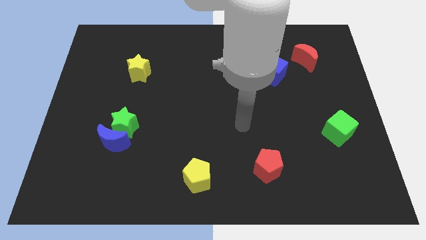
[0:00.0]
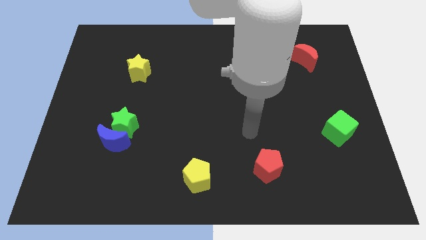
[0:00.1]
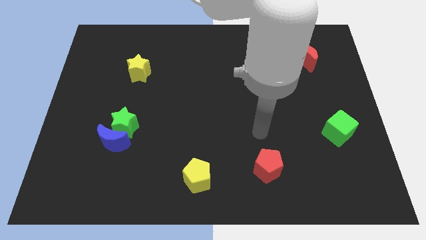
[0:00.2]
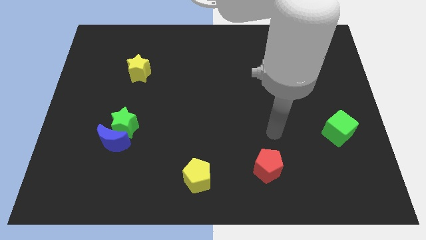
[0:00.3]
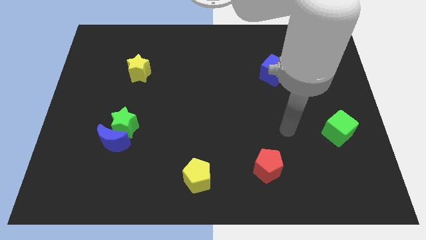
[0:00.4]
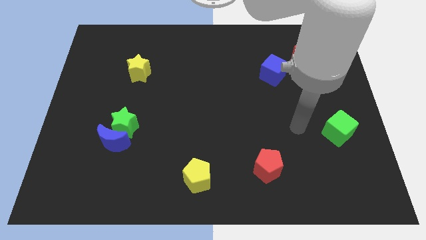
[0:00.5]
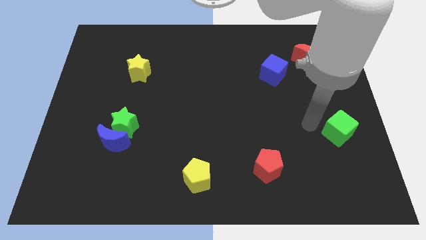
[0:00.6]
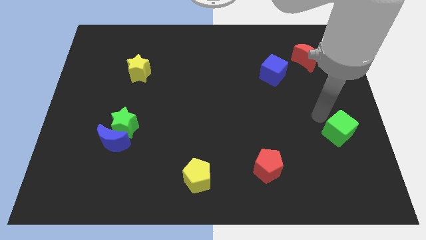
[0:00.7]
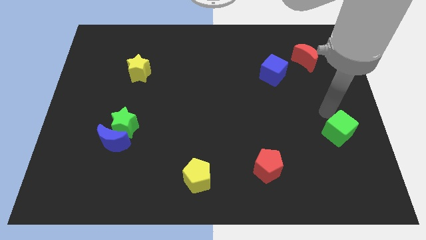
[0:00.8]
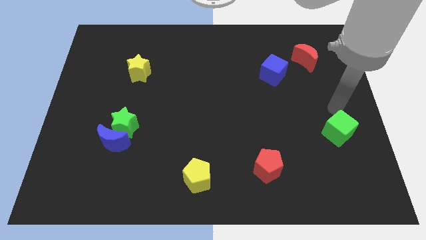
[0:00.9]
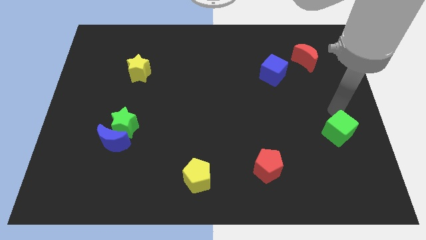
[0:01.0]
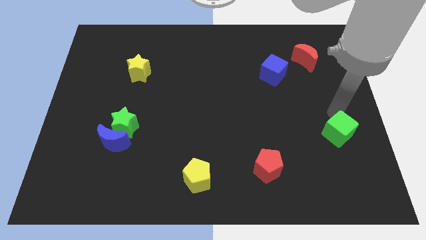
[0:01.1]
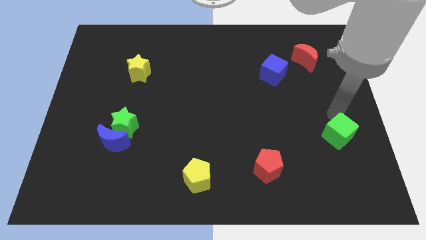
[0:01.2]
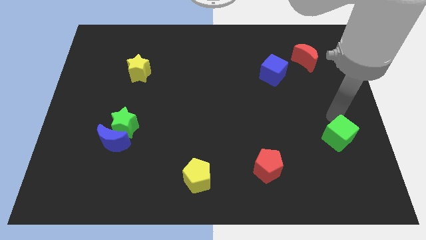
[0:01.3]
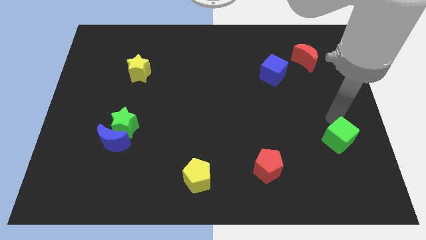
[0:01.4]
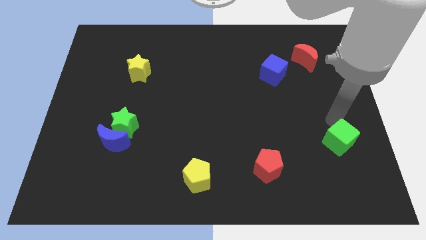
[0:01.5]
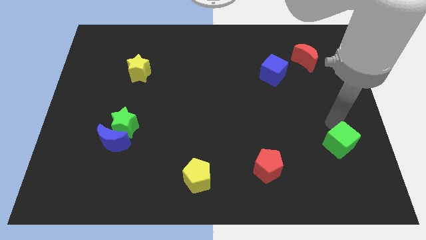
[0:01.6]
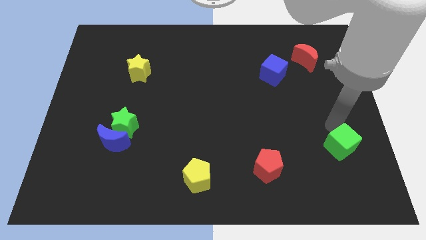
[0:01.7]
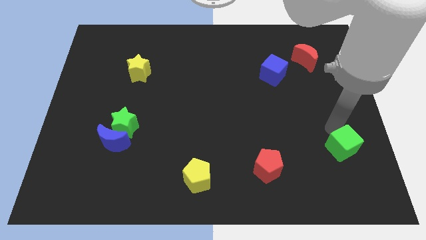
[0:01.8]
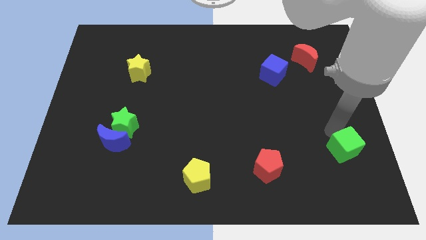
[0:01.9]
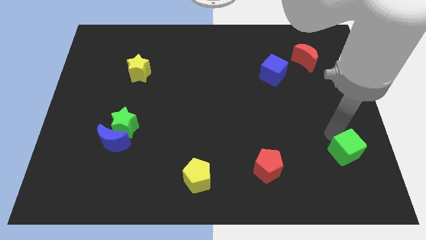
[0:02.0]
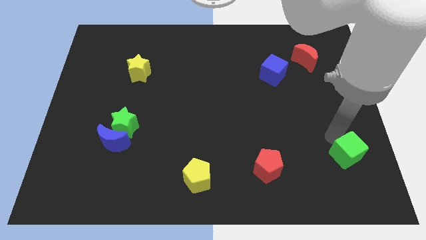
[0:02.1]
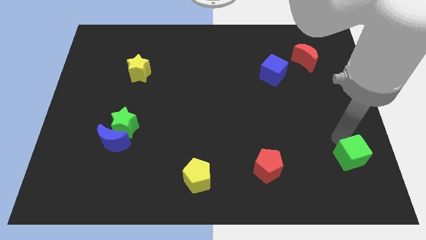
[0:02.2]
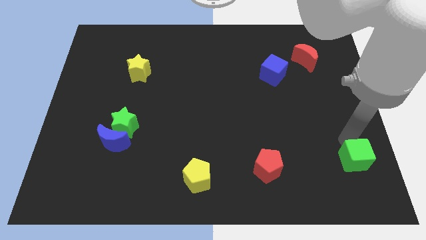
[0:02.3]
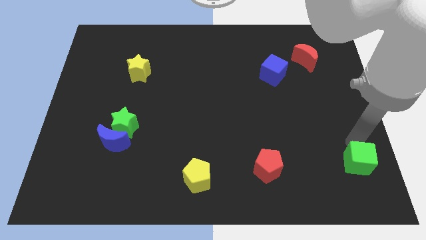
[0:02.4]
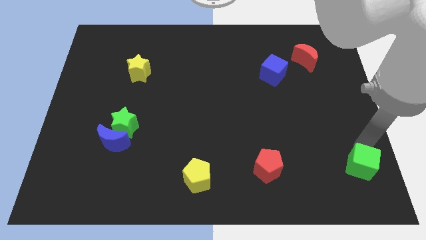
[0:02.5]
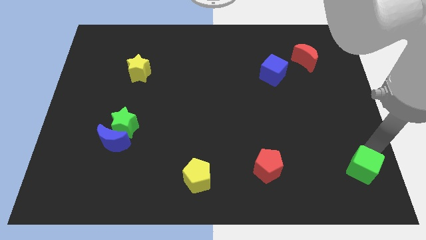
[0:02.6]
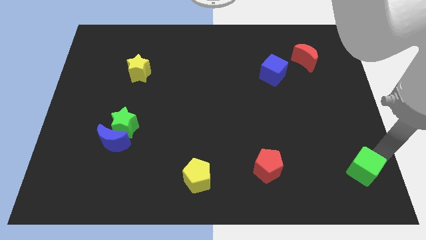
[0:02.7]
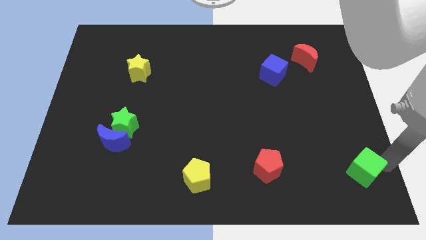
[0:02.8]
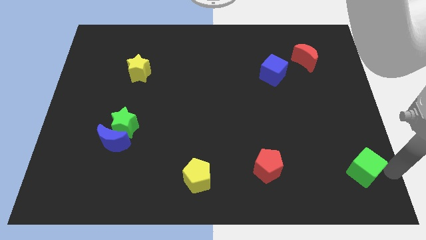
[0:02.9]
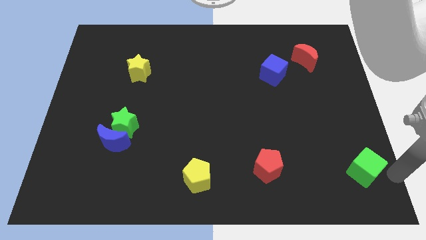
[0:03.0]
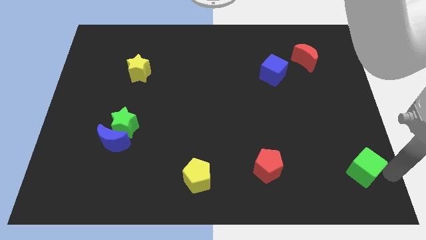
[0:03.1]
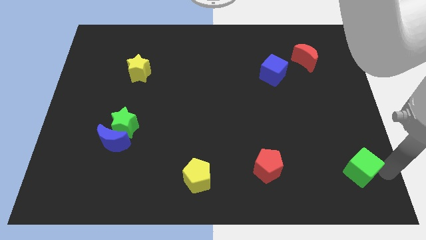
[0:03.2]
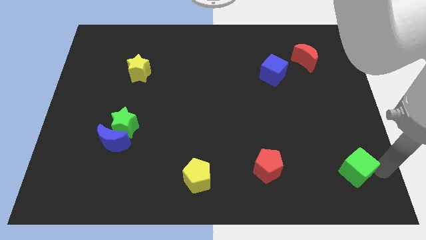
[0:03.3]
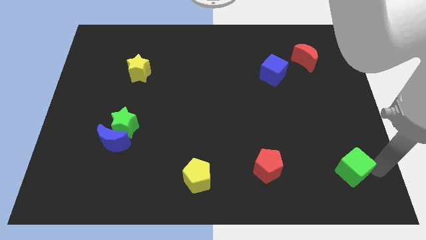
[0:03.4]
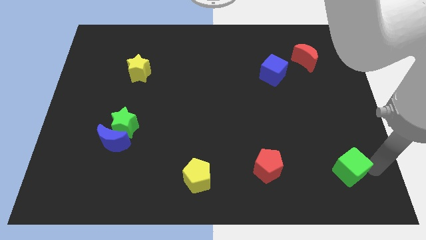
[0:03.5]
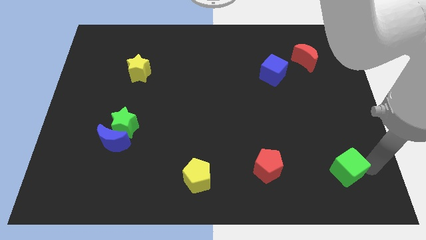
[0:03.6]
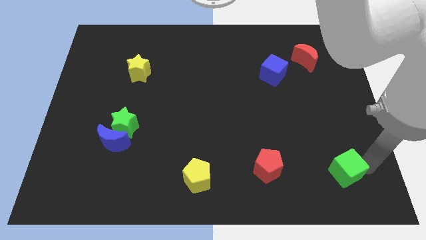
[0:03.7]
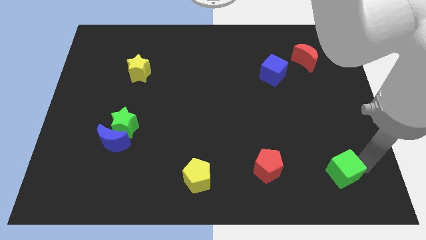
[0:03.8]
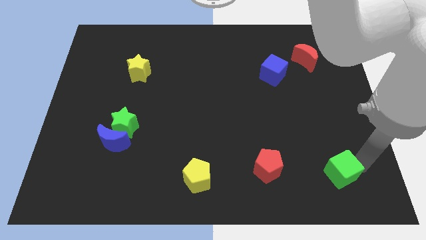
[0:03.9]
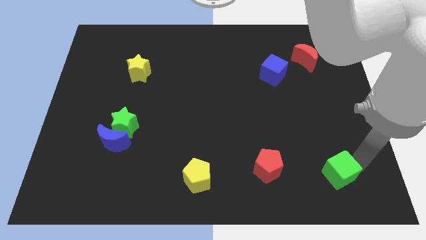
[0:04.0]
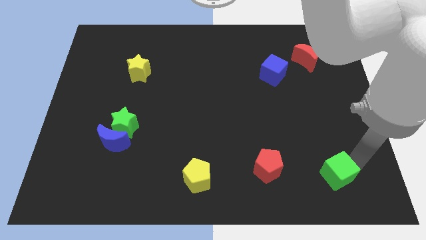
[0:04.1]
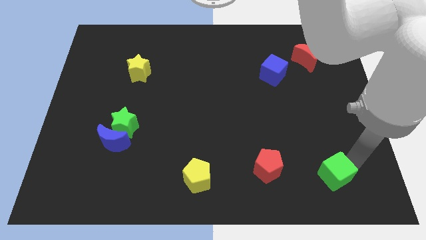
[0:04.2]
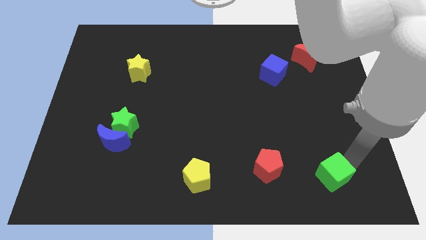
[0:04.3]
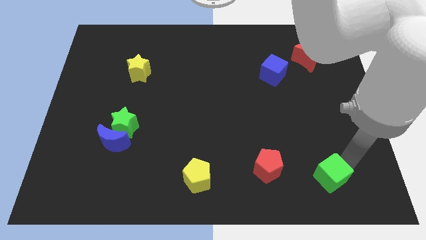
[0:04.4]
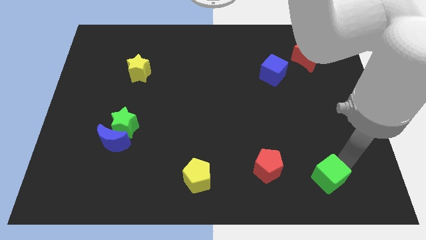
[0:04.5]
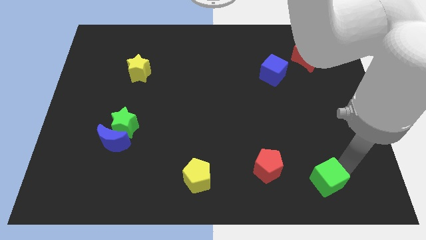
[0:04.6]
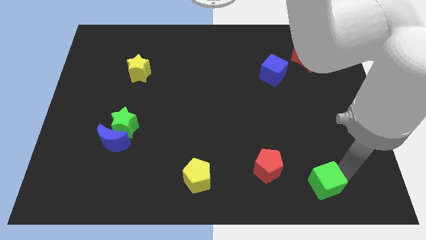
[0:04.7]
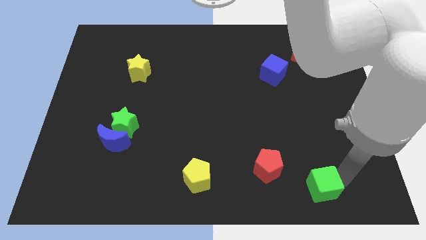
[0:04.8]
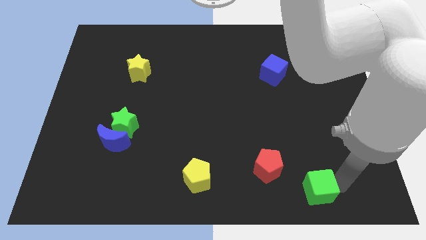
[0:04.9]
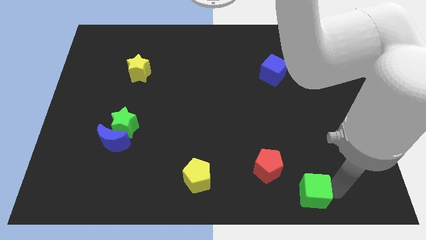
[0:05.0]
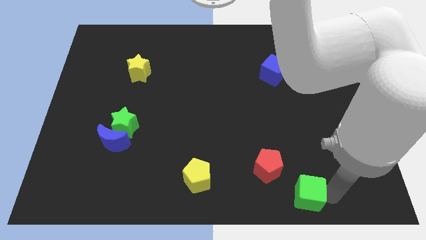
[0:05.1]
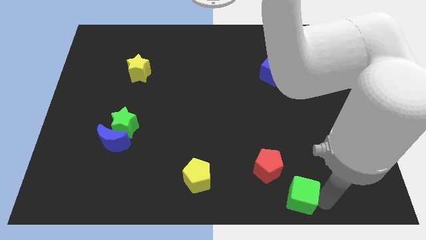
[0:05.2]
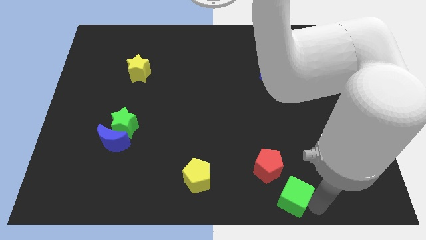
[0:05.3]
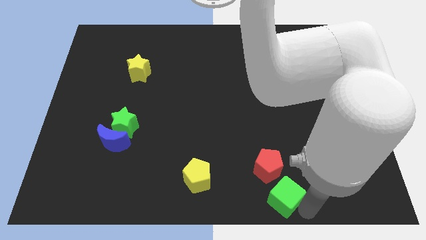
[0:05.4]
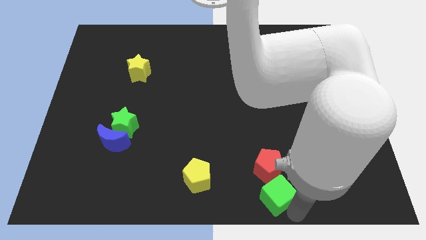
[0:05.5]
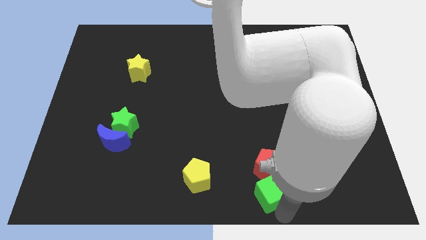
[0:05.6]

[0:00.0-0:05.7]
push the green cube just right of the yellow pentagon

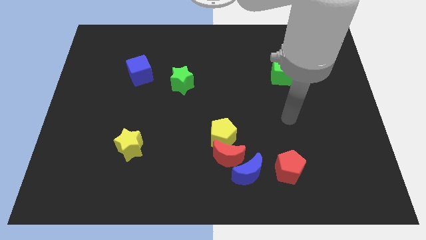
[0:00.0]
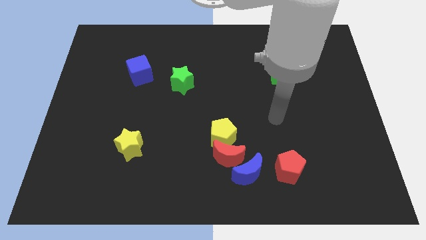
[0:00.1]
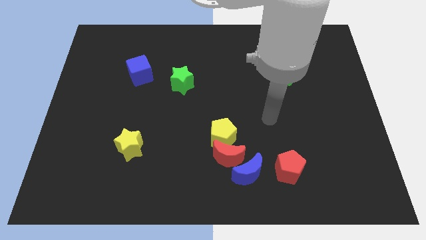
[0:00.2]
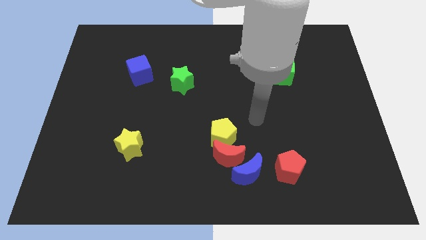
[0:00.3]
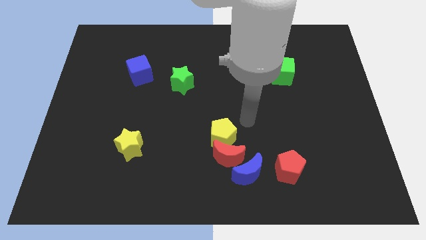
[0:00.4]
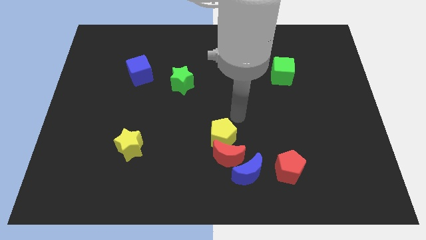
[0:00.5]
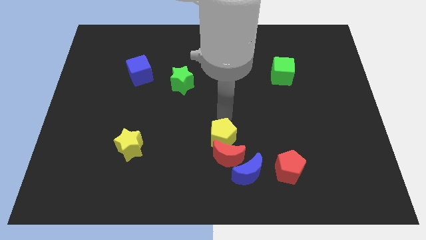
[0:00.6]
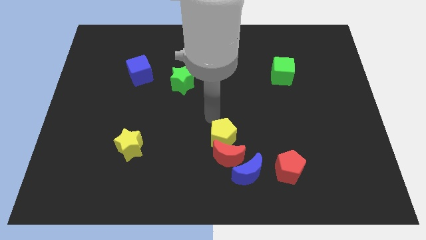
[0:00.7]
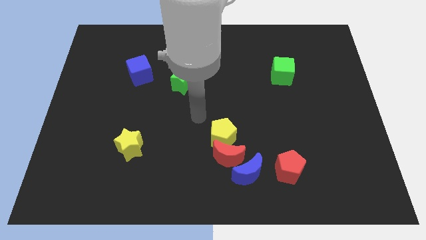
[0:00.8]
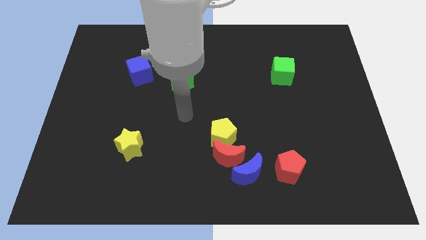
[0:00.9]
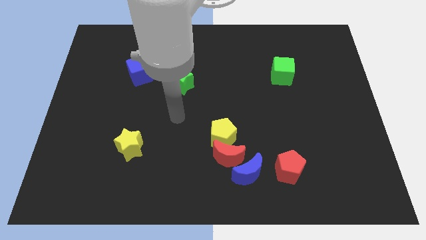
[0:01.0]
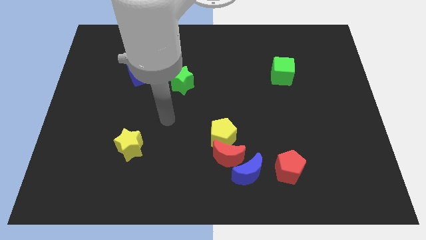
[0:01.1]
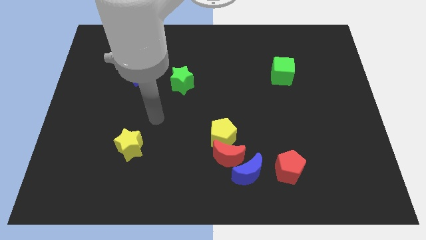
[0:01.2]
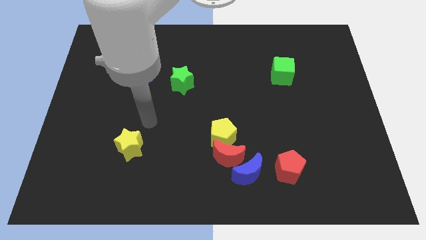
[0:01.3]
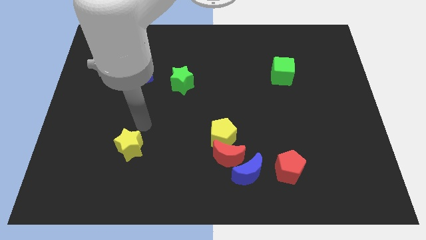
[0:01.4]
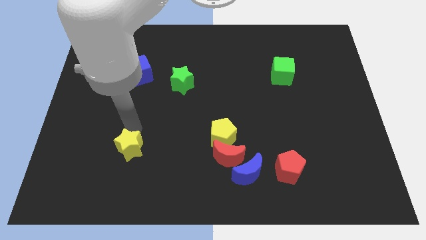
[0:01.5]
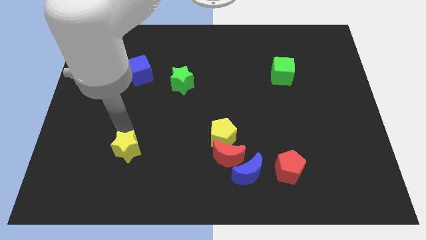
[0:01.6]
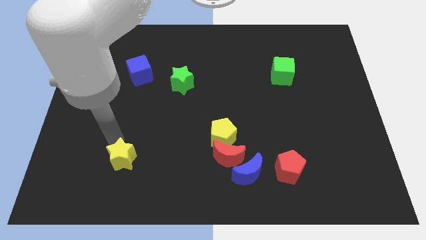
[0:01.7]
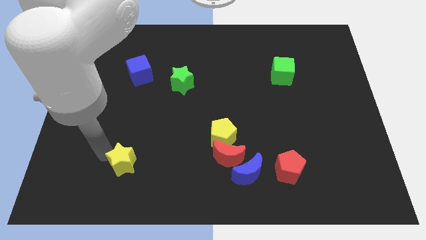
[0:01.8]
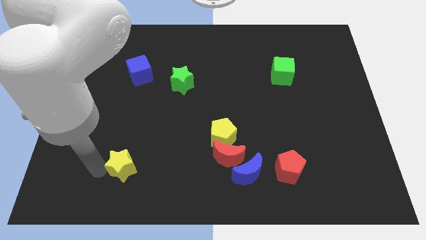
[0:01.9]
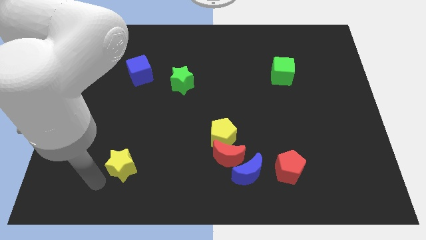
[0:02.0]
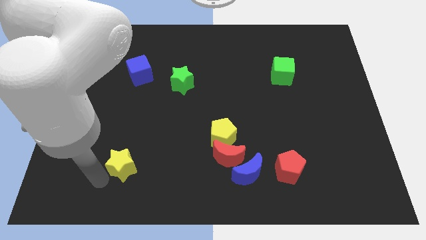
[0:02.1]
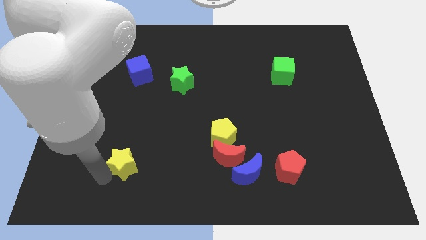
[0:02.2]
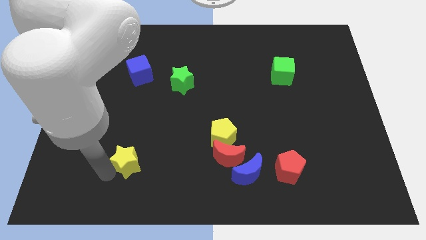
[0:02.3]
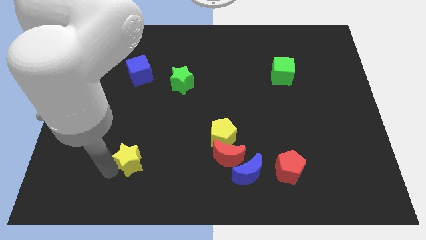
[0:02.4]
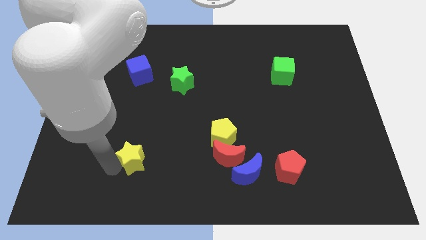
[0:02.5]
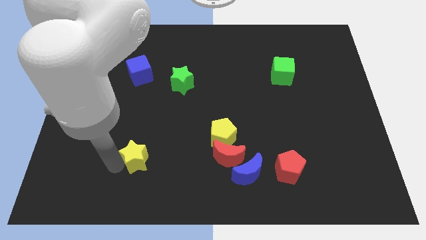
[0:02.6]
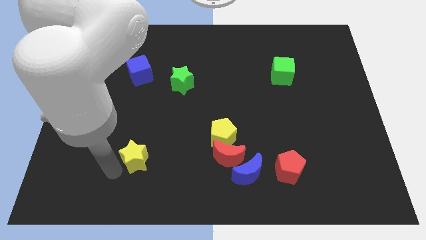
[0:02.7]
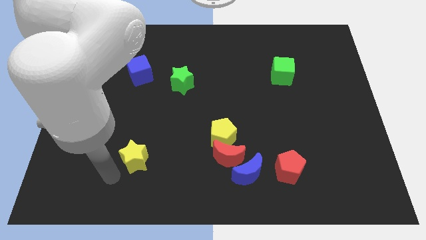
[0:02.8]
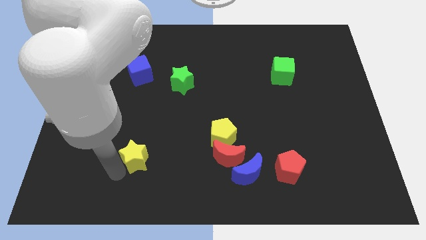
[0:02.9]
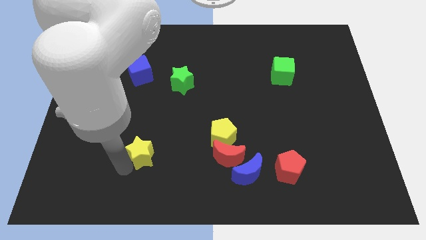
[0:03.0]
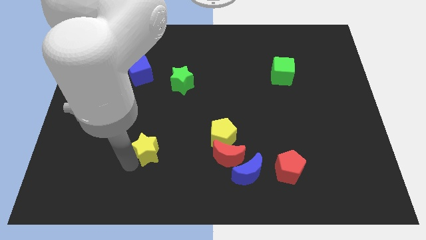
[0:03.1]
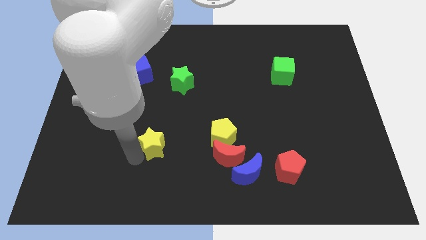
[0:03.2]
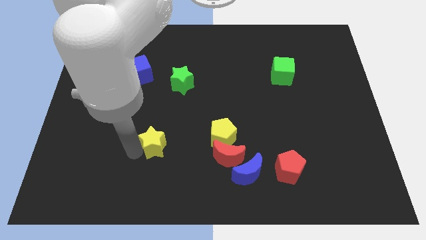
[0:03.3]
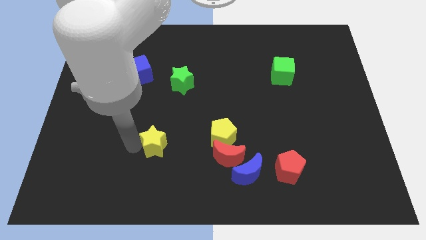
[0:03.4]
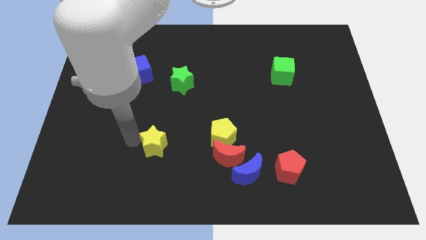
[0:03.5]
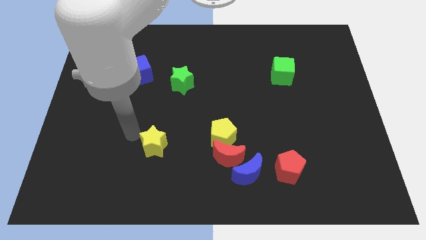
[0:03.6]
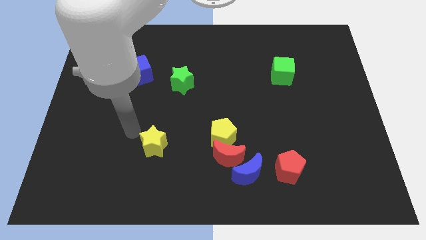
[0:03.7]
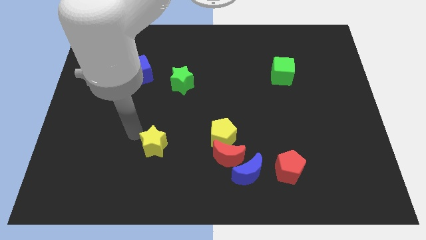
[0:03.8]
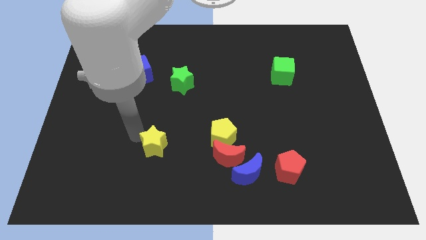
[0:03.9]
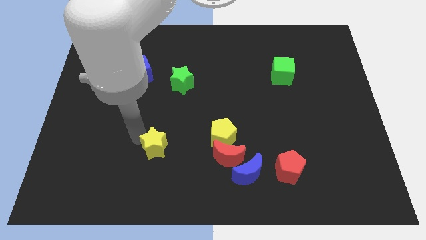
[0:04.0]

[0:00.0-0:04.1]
put the yellow star left of the red moon
